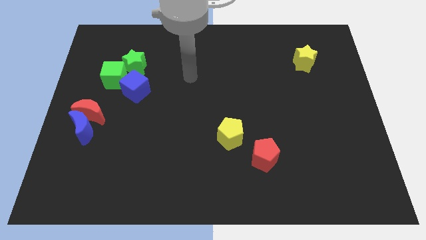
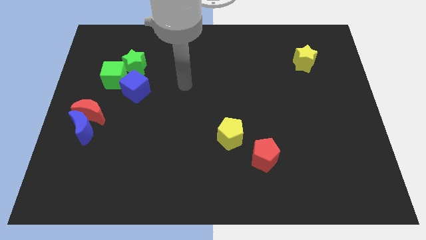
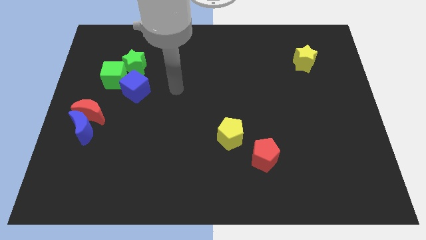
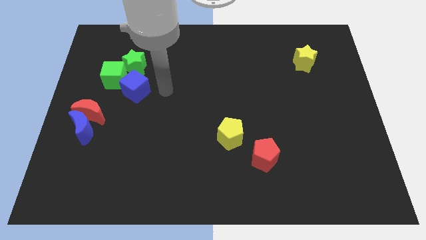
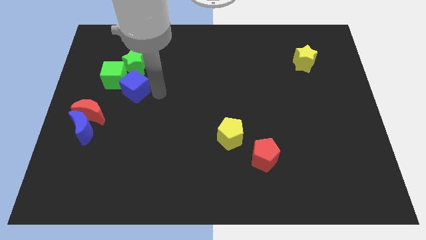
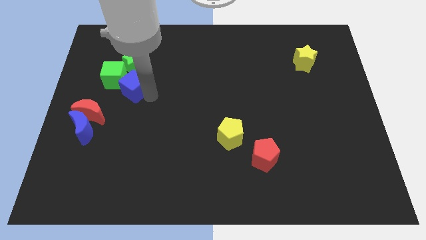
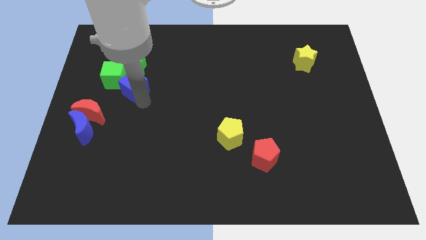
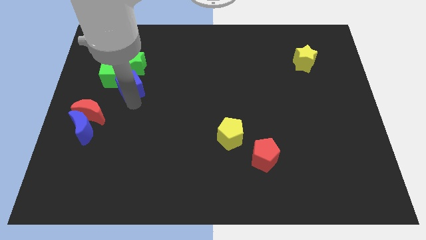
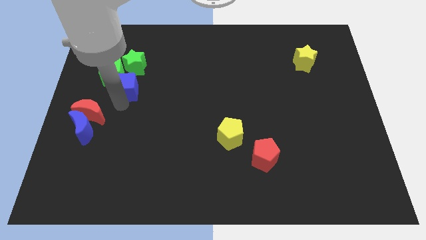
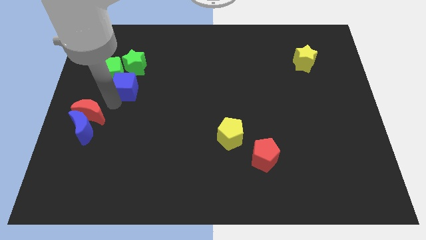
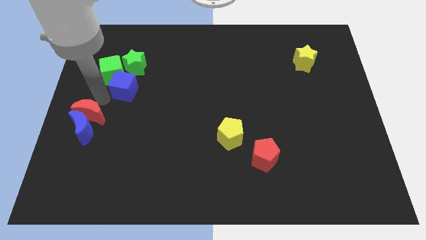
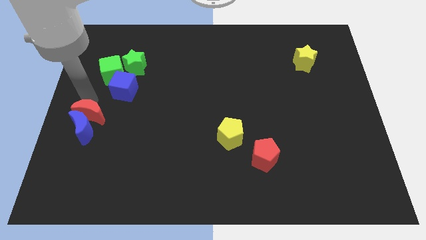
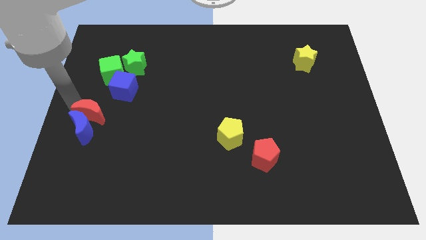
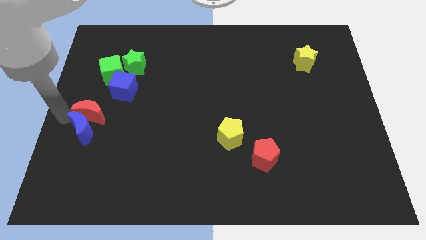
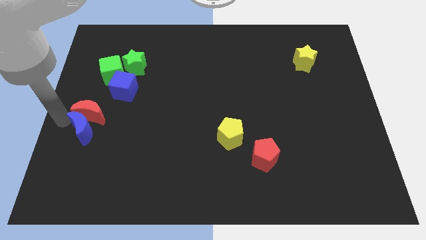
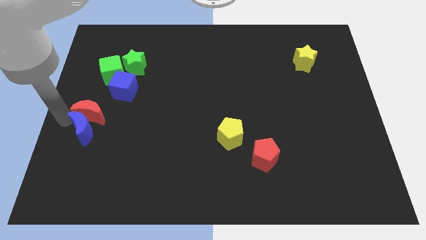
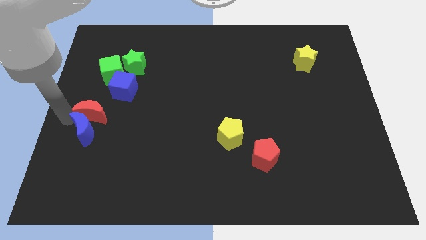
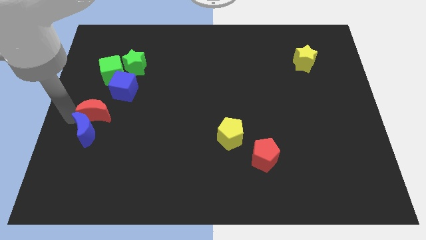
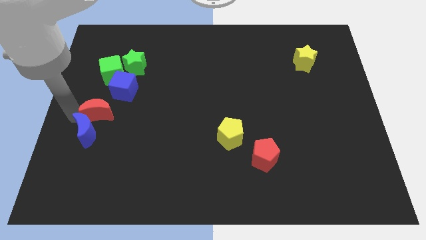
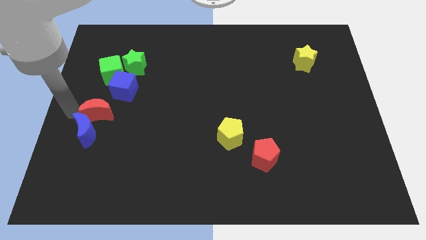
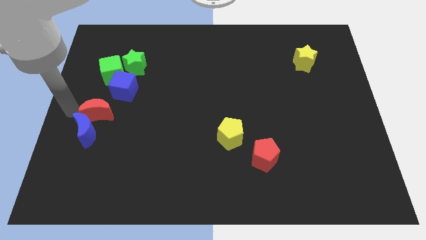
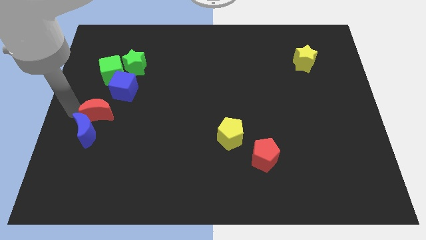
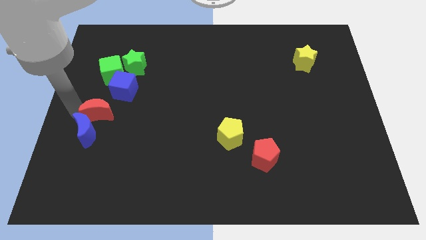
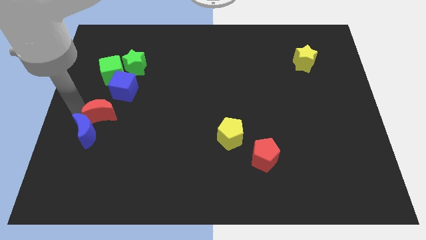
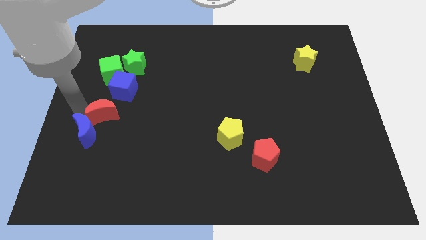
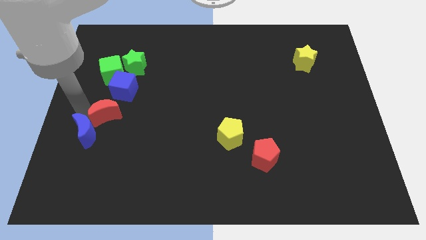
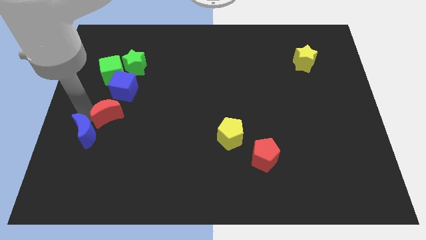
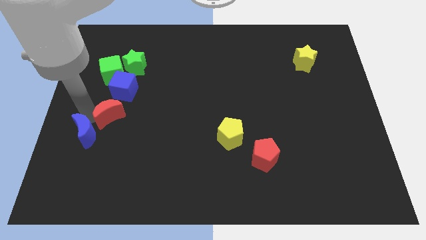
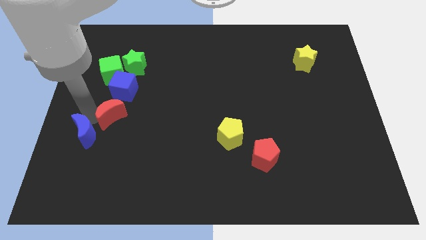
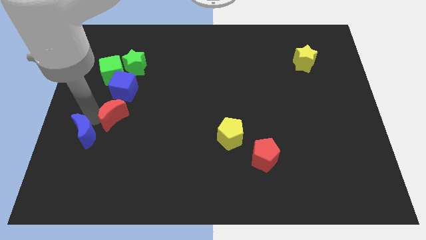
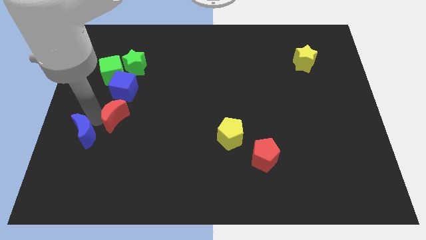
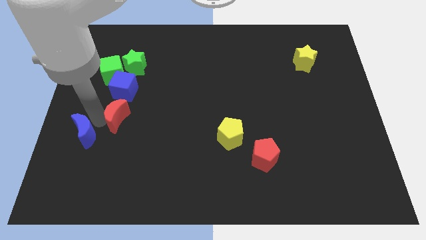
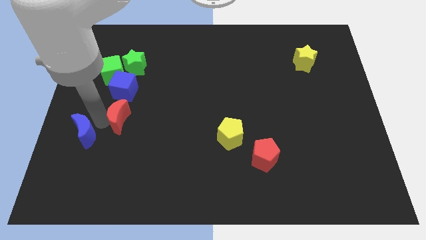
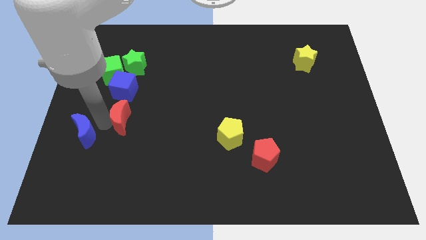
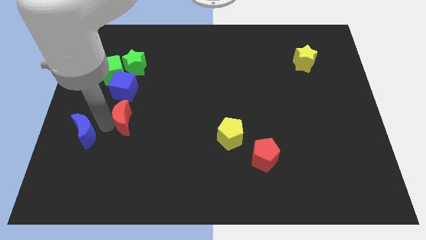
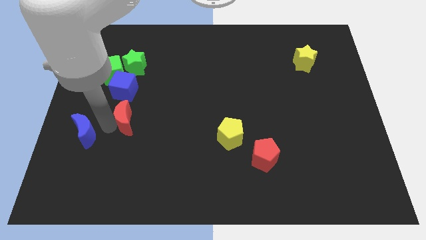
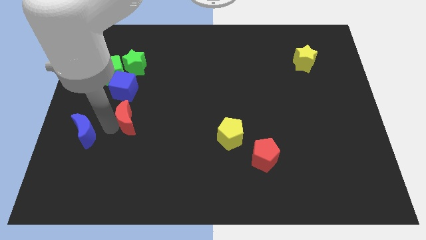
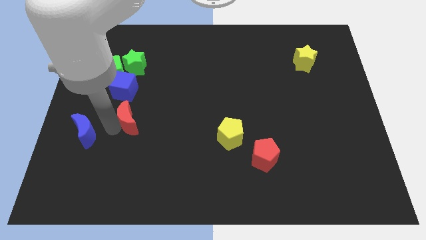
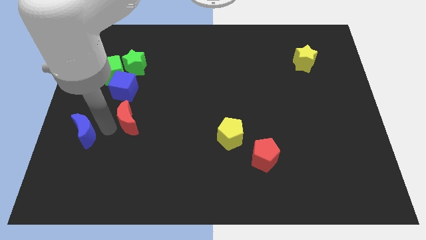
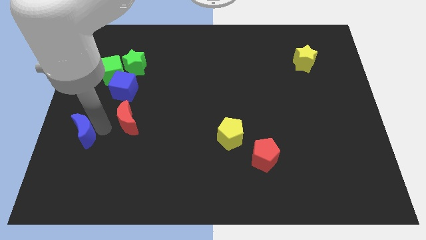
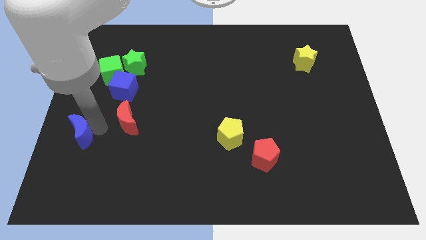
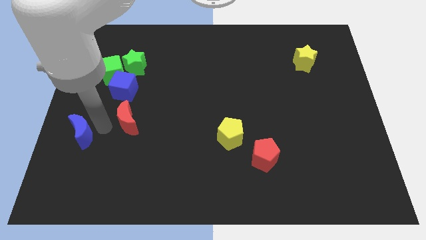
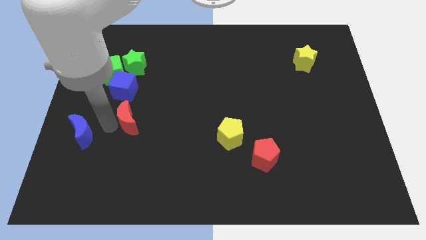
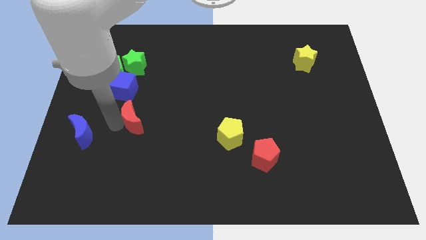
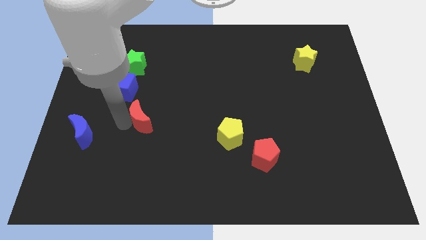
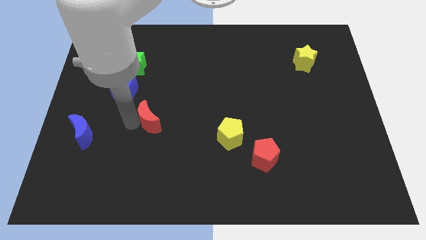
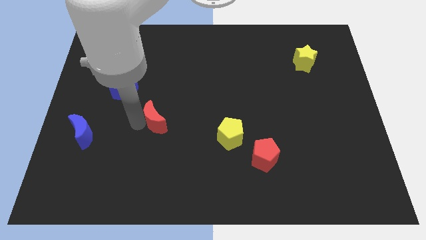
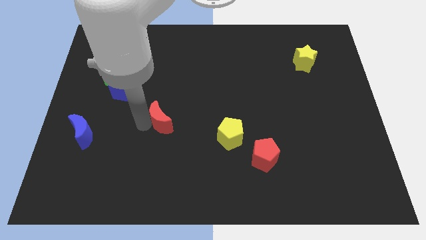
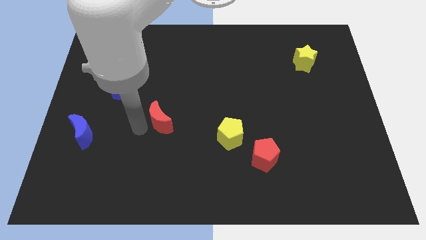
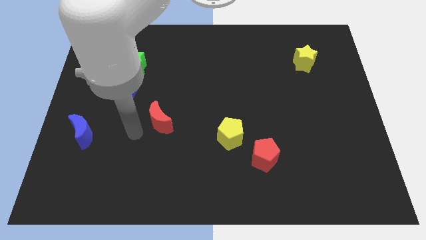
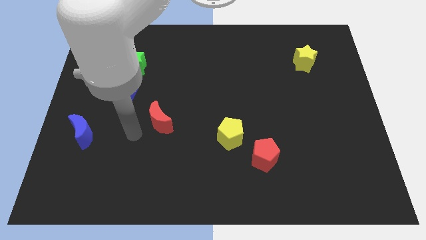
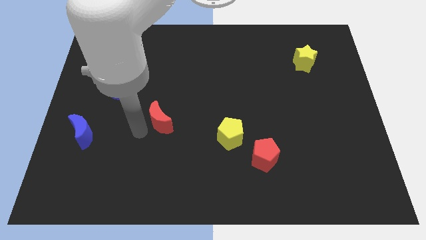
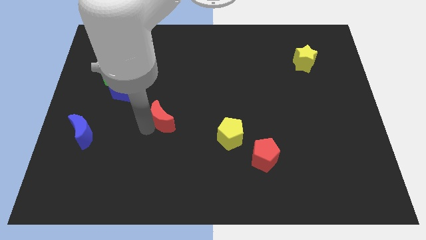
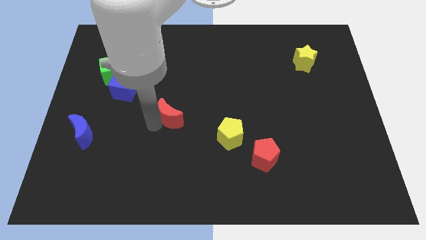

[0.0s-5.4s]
slide the red moon to the middle

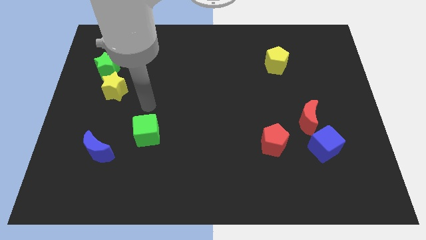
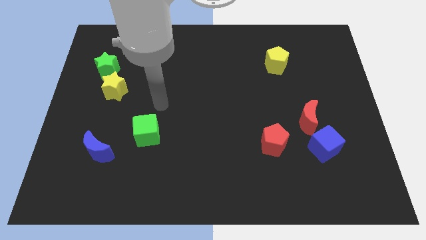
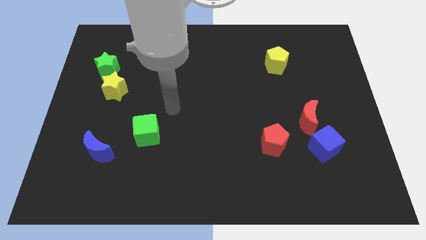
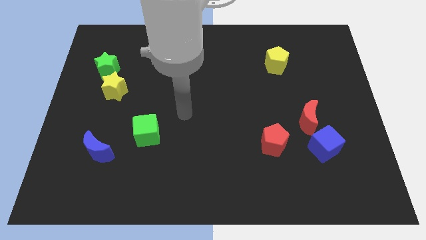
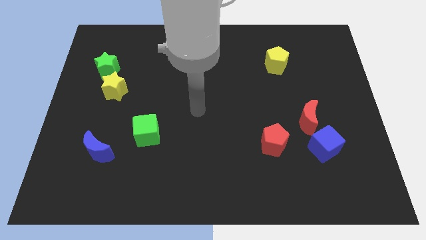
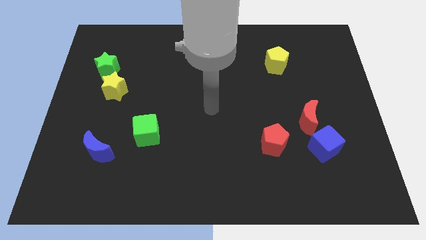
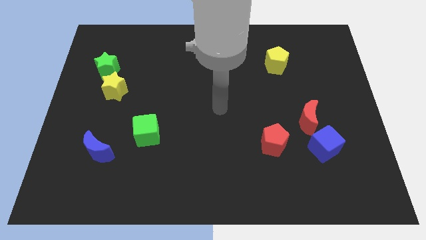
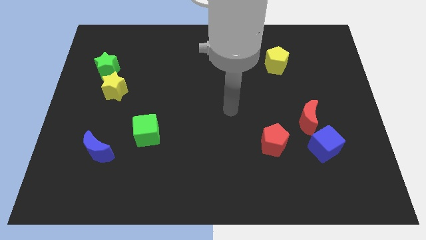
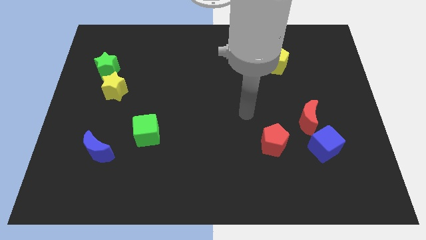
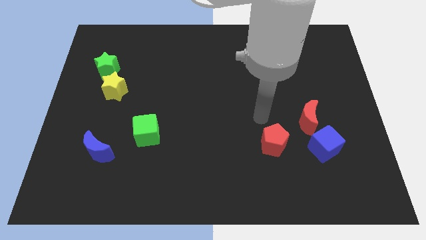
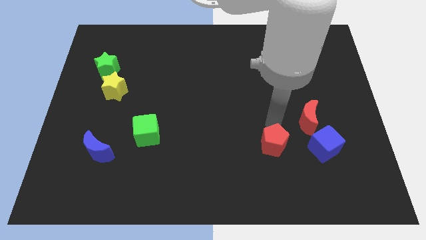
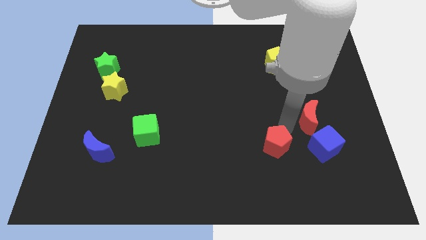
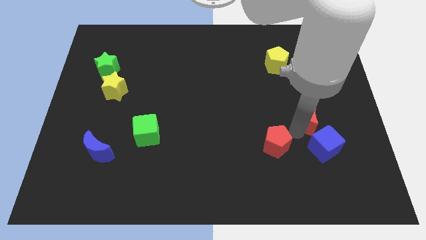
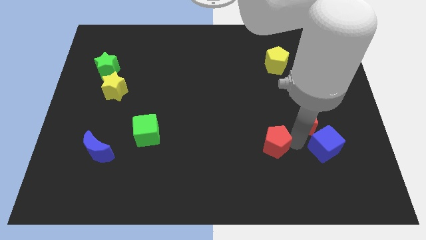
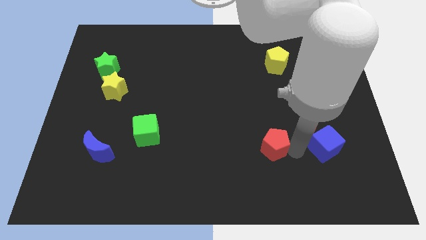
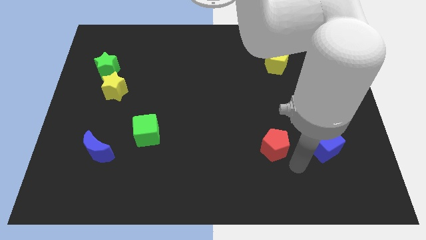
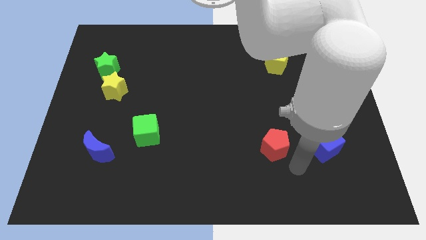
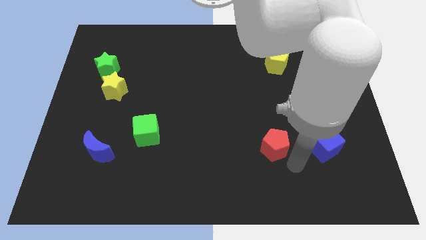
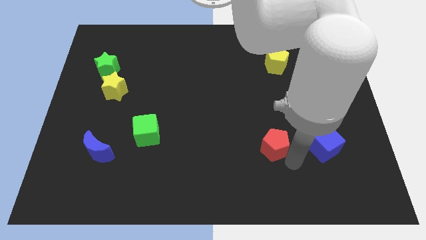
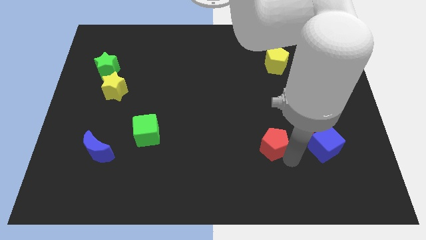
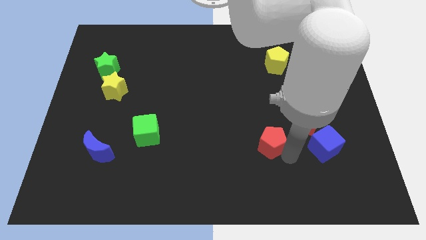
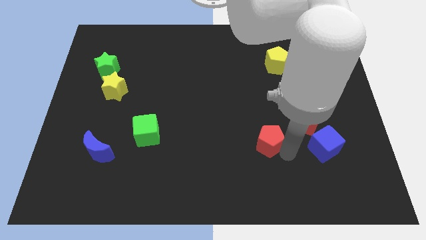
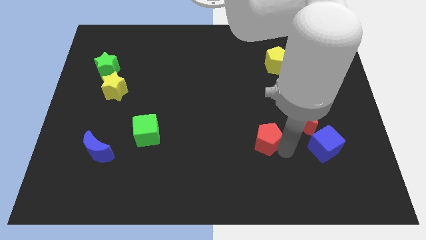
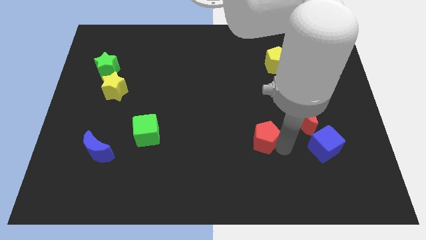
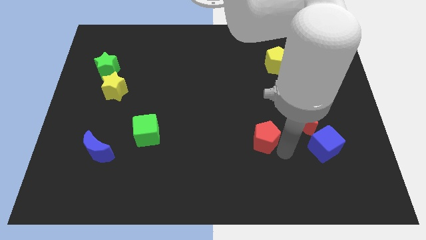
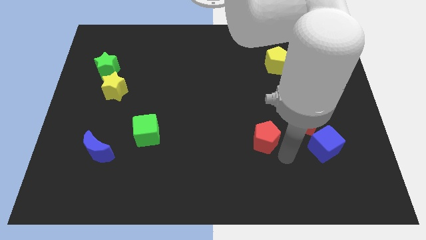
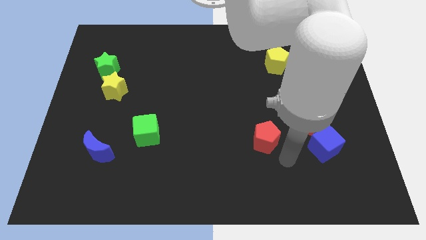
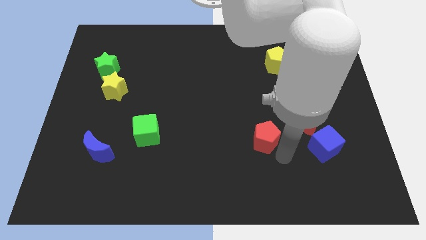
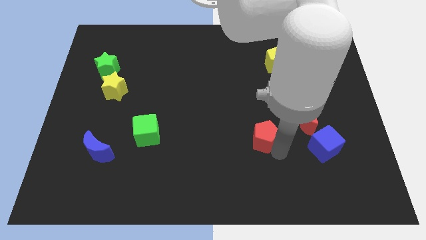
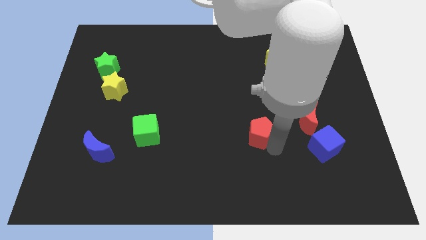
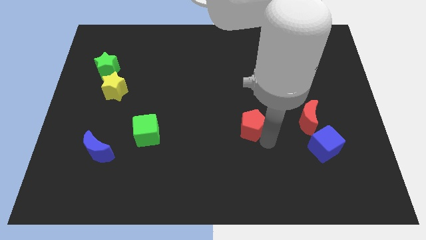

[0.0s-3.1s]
put the red pentagon to the center of the board

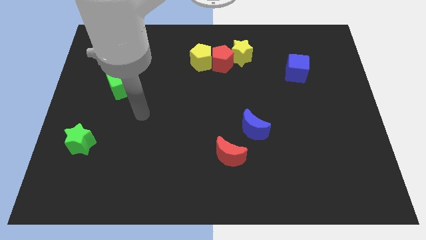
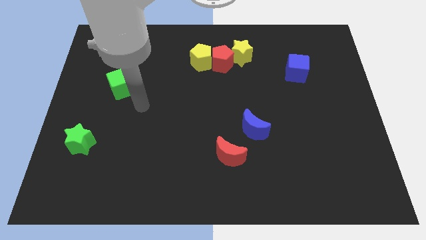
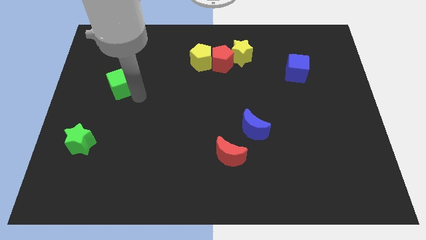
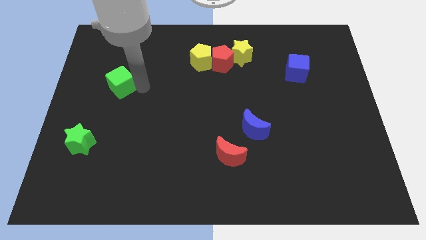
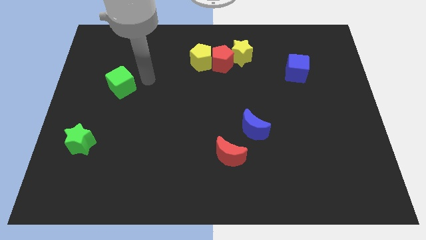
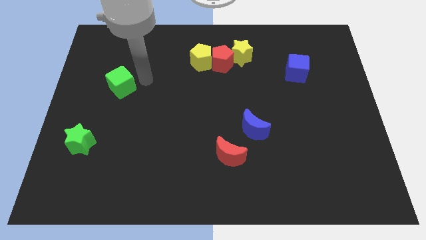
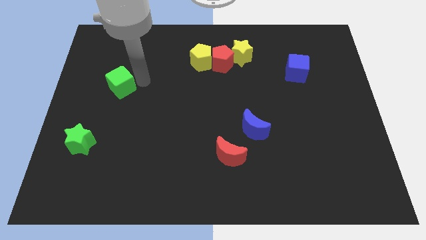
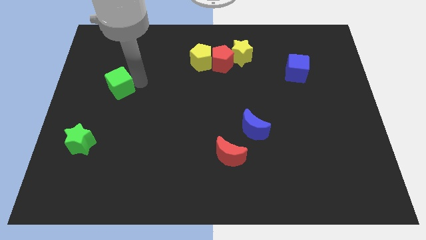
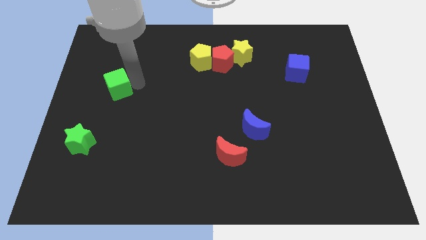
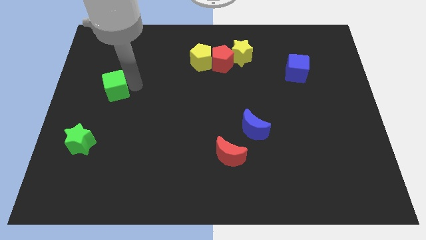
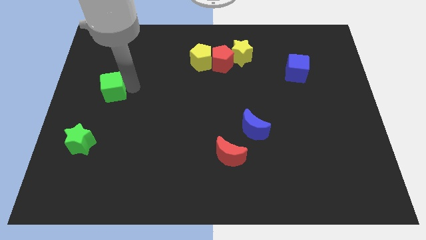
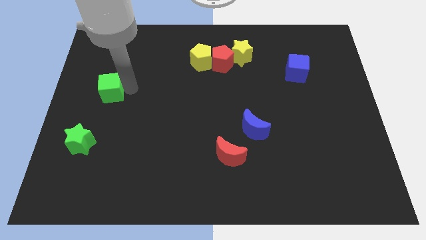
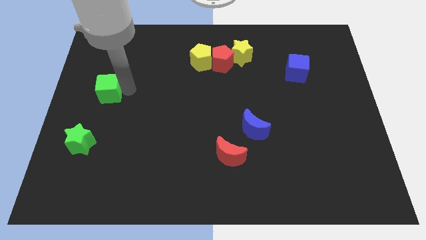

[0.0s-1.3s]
push the green cube to the left side
